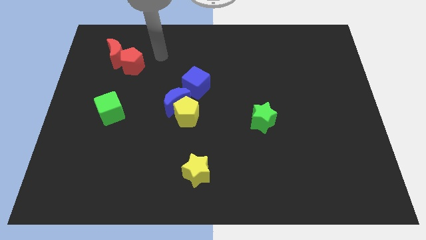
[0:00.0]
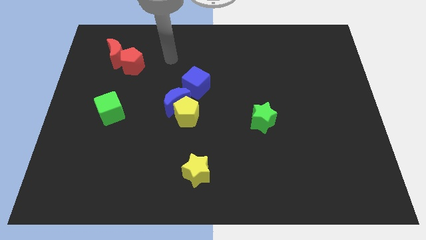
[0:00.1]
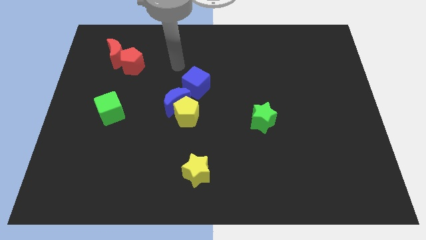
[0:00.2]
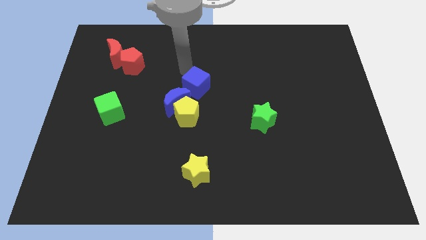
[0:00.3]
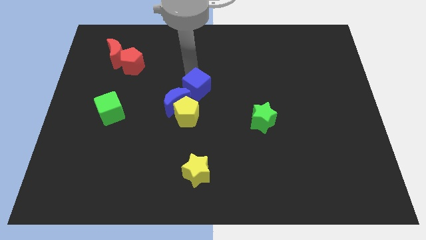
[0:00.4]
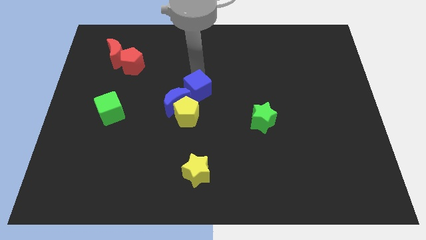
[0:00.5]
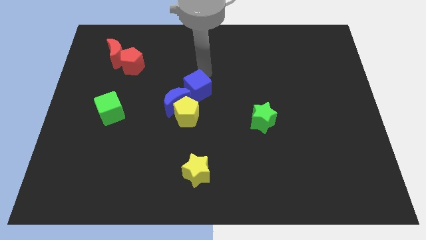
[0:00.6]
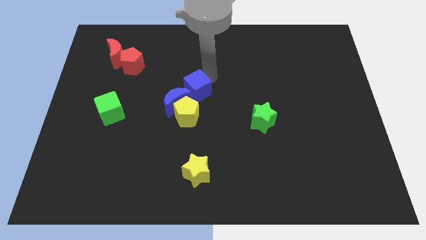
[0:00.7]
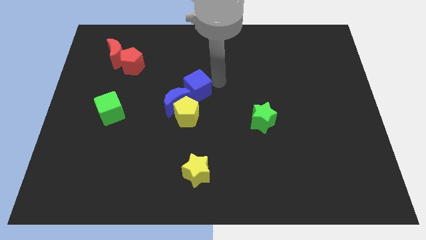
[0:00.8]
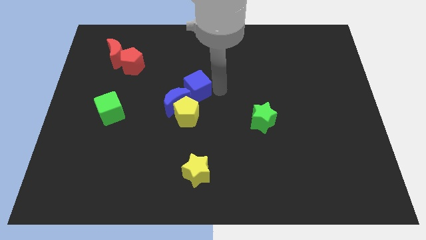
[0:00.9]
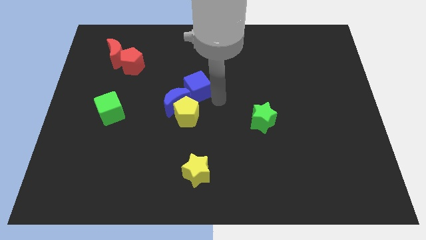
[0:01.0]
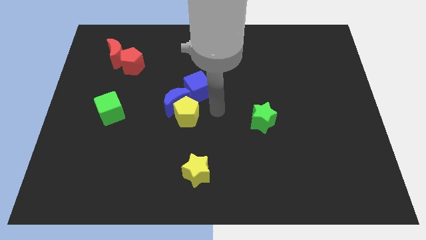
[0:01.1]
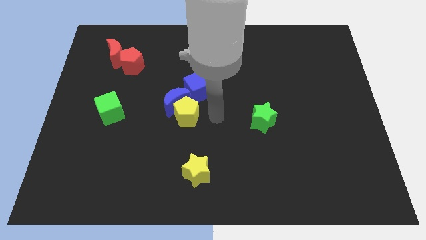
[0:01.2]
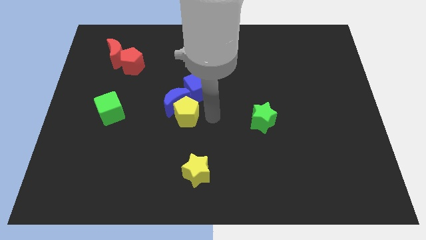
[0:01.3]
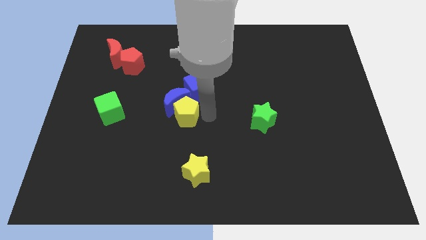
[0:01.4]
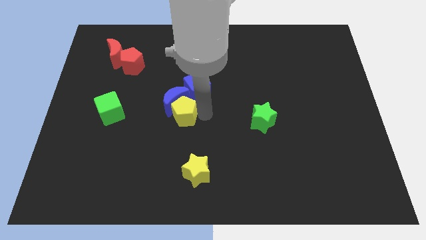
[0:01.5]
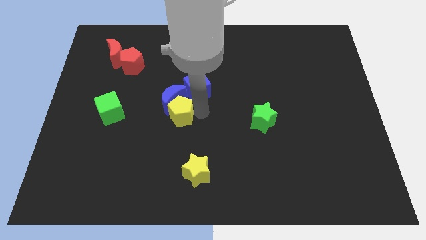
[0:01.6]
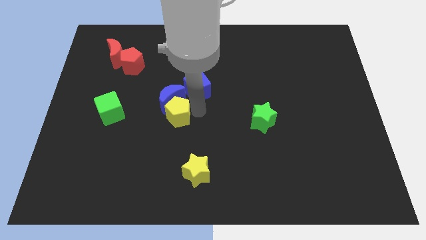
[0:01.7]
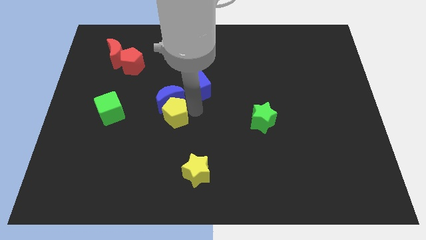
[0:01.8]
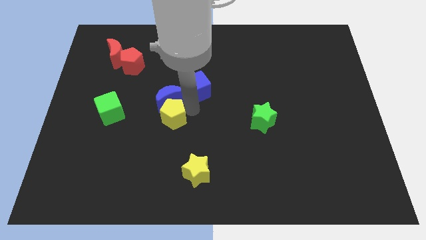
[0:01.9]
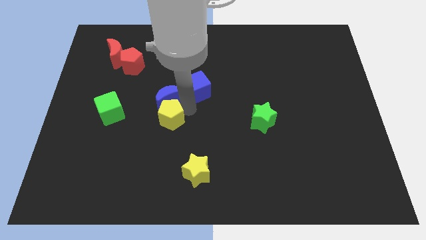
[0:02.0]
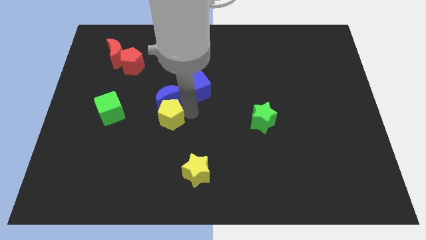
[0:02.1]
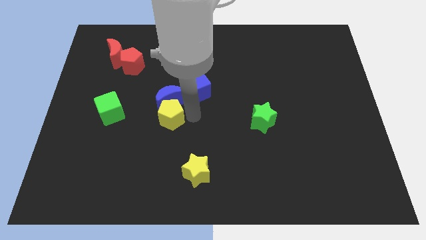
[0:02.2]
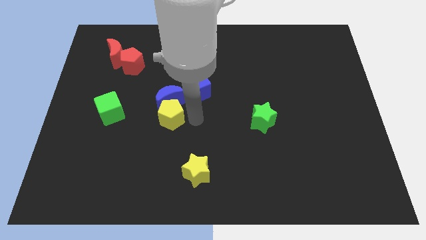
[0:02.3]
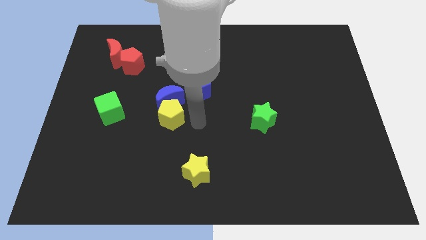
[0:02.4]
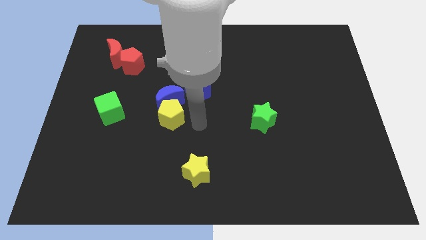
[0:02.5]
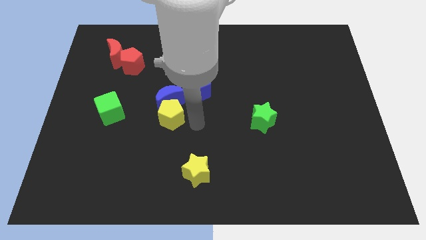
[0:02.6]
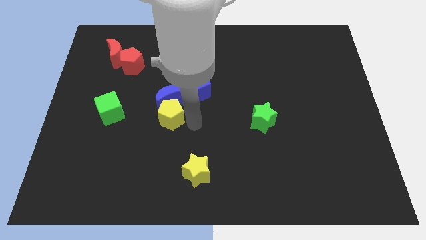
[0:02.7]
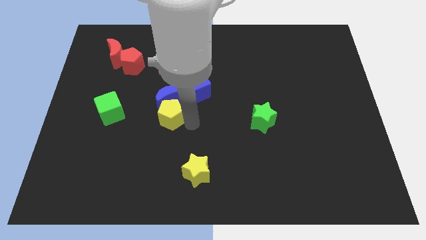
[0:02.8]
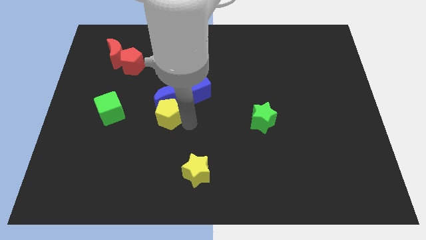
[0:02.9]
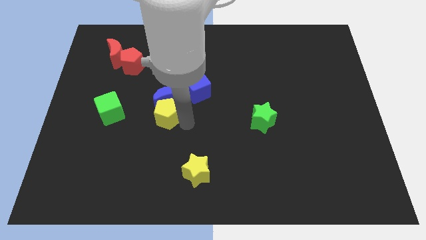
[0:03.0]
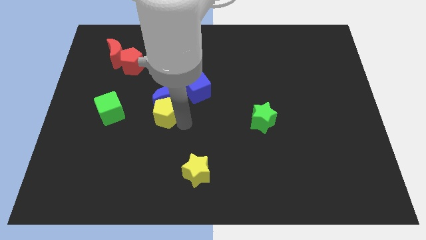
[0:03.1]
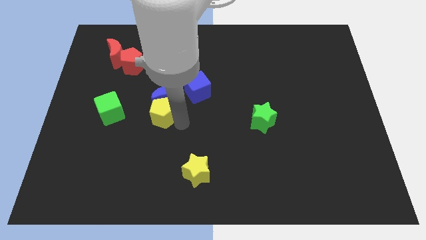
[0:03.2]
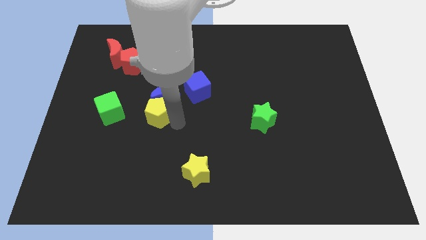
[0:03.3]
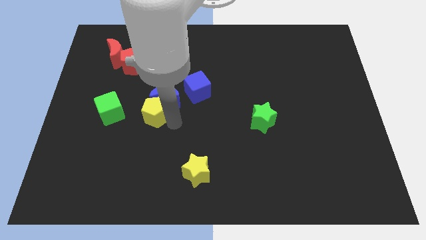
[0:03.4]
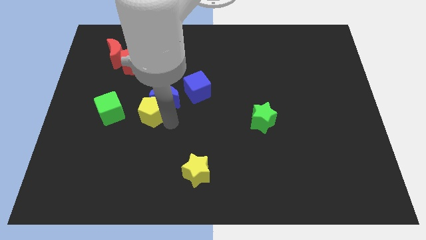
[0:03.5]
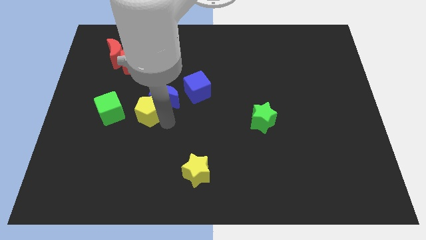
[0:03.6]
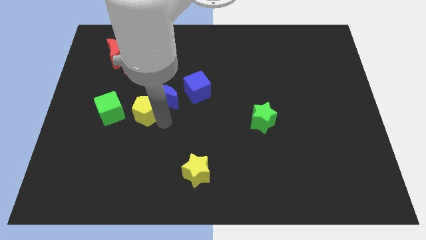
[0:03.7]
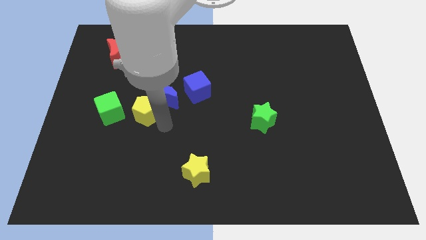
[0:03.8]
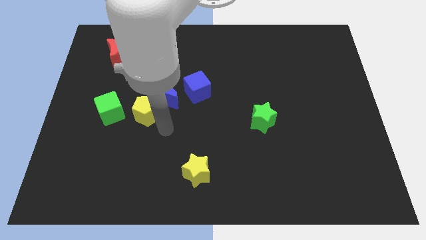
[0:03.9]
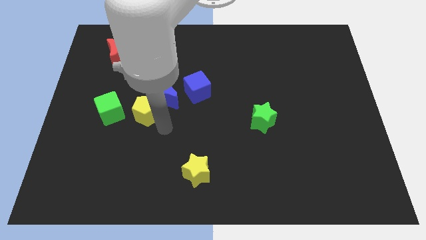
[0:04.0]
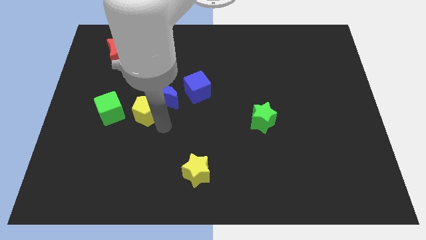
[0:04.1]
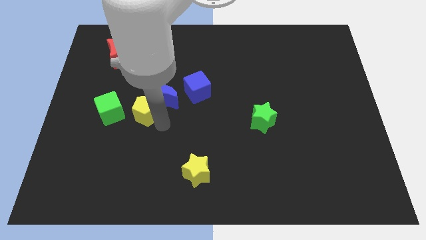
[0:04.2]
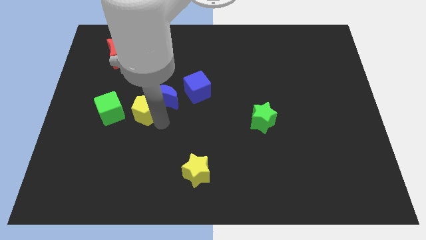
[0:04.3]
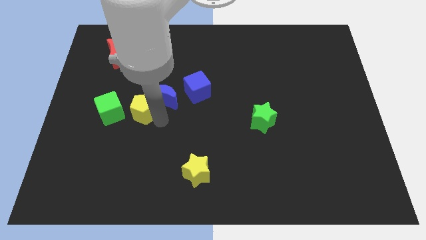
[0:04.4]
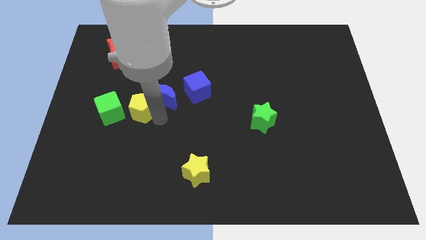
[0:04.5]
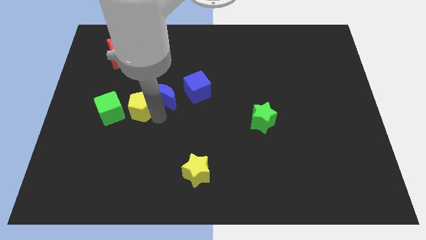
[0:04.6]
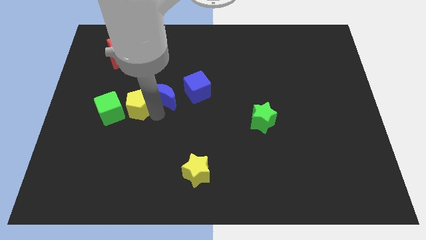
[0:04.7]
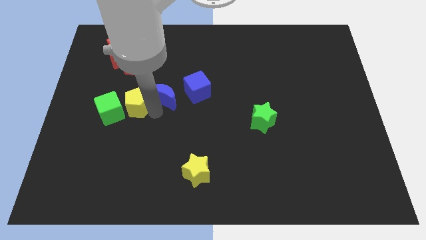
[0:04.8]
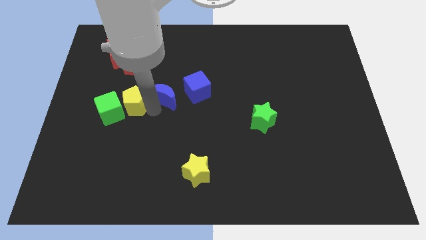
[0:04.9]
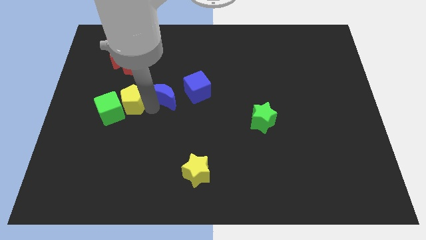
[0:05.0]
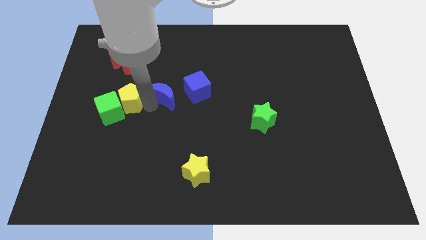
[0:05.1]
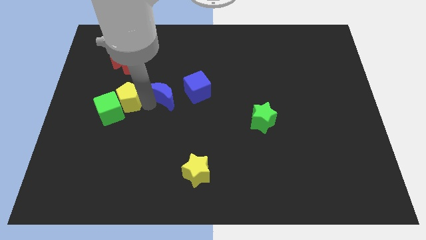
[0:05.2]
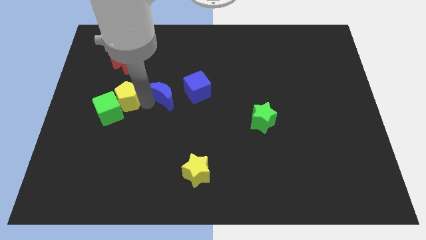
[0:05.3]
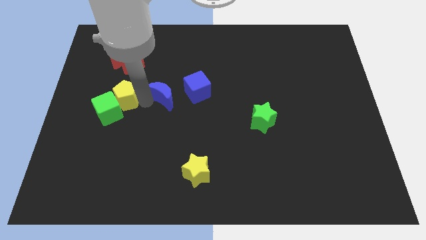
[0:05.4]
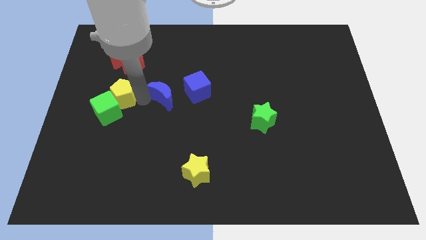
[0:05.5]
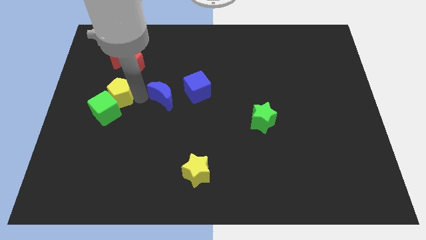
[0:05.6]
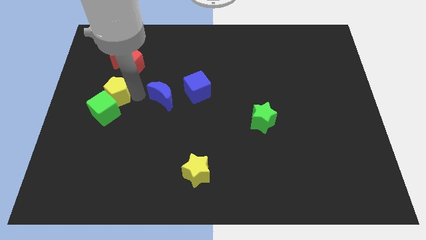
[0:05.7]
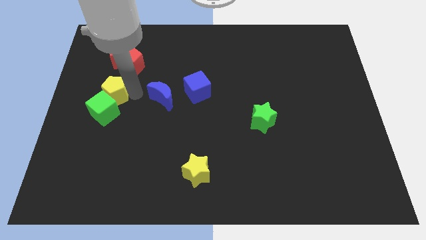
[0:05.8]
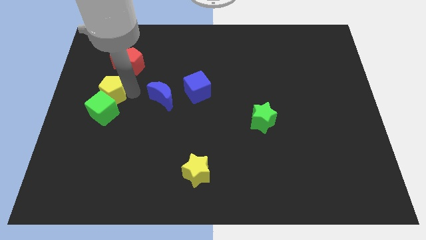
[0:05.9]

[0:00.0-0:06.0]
put the yellow pentagon to the top left of the green cube

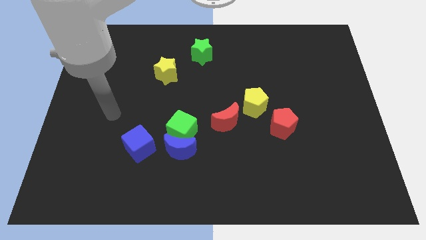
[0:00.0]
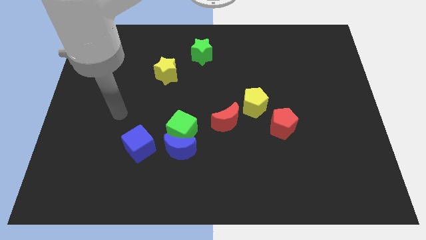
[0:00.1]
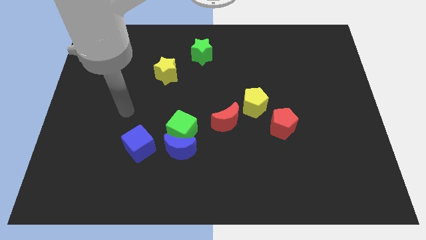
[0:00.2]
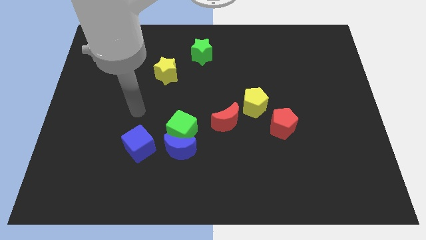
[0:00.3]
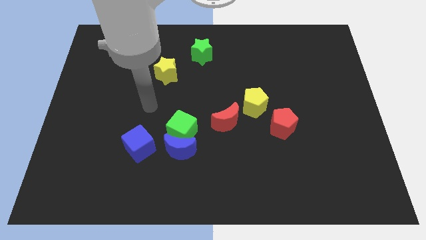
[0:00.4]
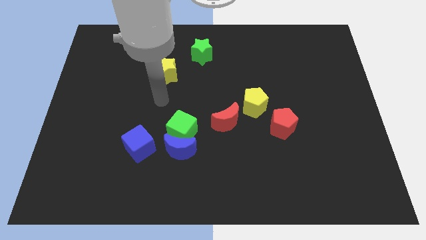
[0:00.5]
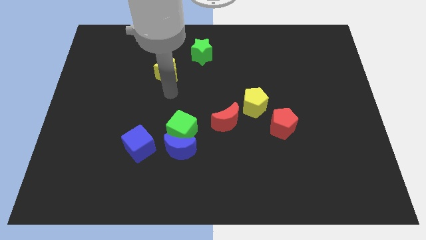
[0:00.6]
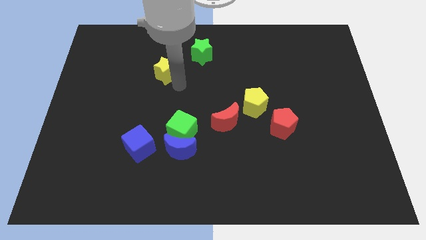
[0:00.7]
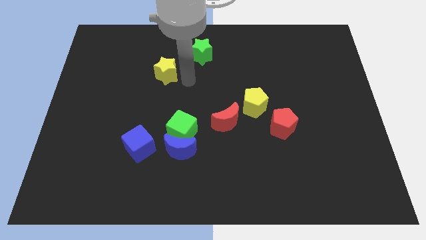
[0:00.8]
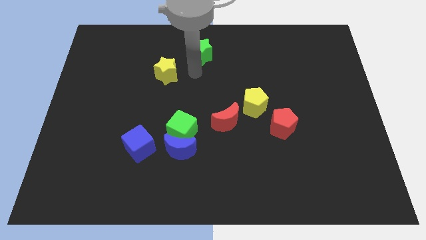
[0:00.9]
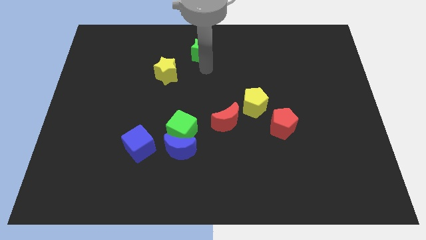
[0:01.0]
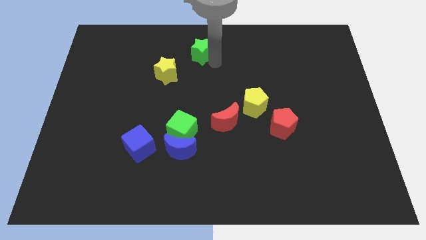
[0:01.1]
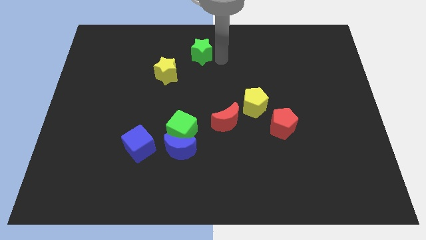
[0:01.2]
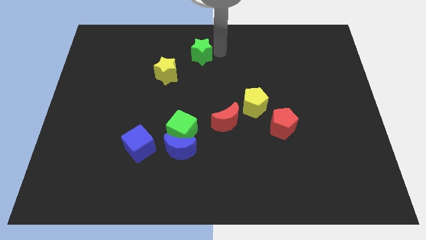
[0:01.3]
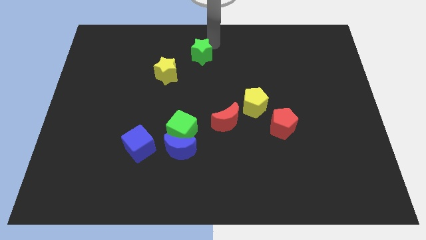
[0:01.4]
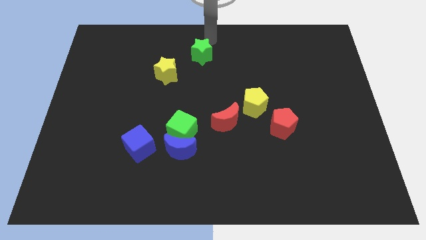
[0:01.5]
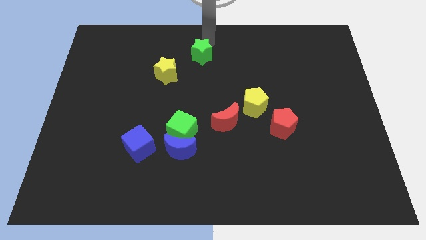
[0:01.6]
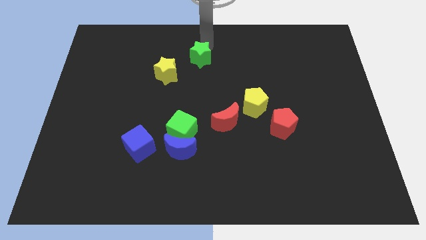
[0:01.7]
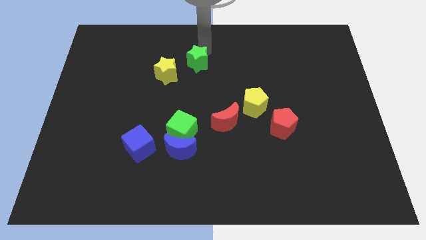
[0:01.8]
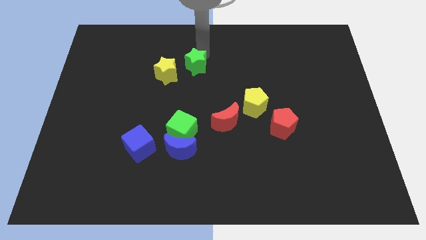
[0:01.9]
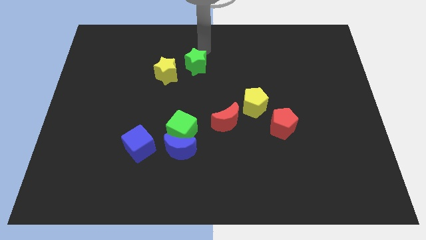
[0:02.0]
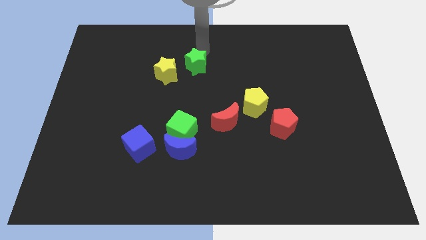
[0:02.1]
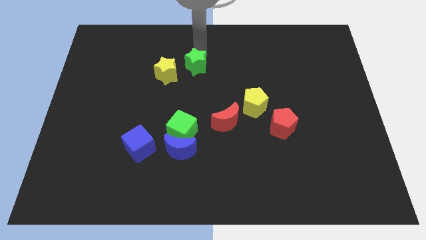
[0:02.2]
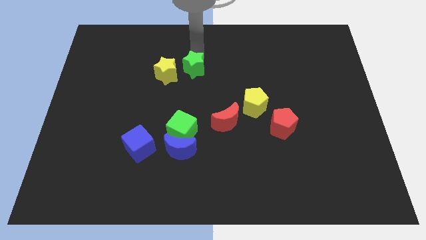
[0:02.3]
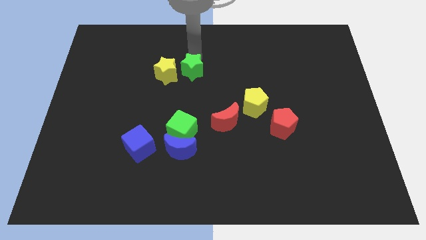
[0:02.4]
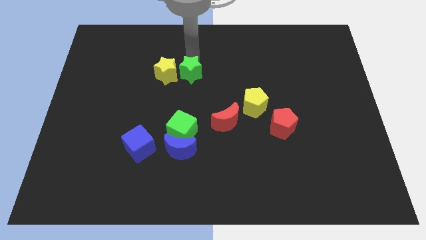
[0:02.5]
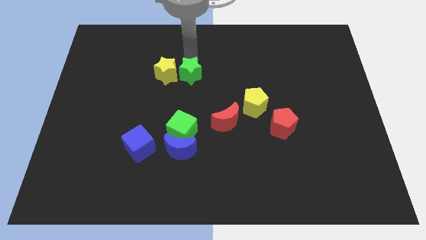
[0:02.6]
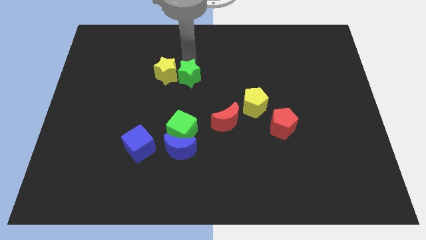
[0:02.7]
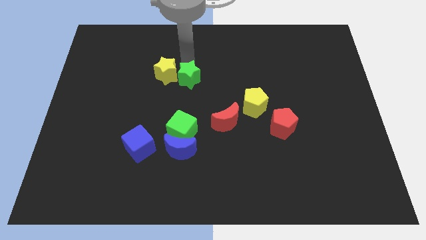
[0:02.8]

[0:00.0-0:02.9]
slide the green star to the top side of the green cube
